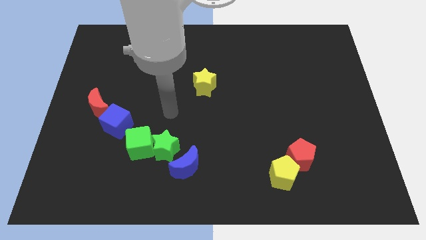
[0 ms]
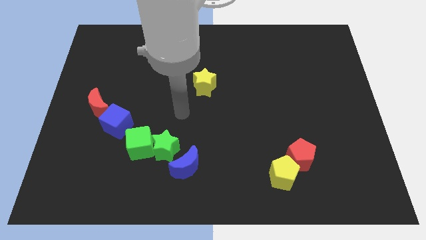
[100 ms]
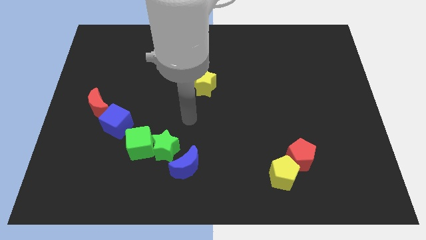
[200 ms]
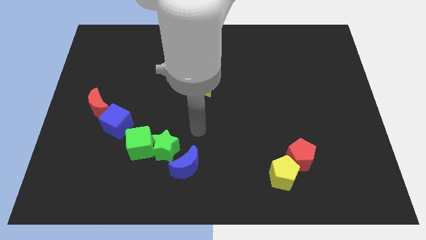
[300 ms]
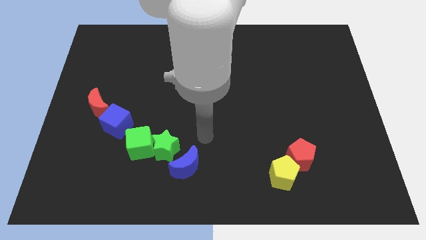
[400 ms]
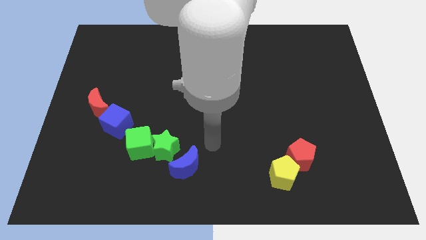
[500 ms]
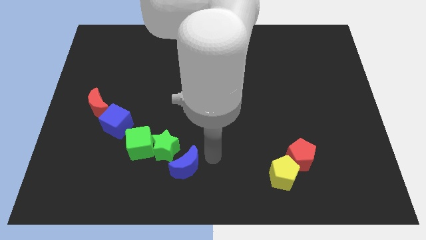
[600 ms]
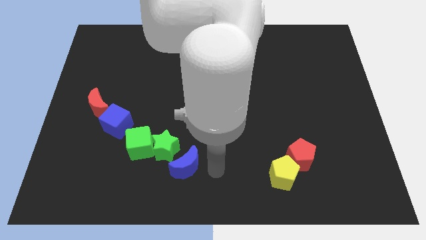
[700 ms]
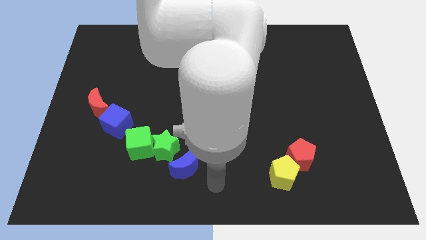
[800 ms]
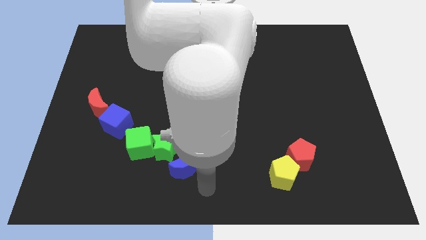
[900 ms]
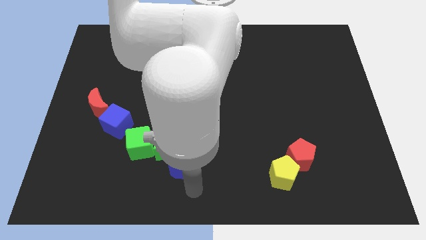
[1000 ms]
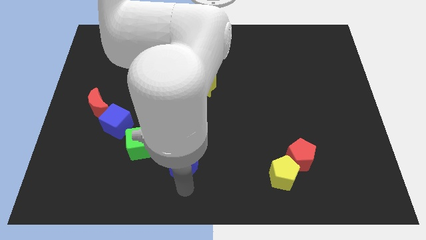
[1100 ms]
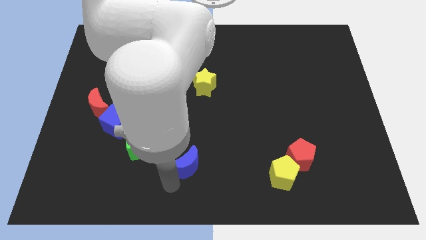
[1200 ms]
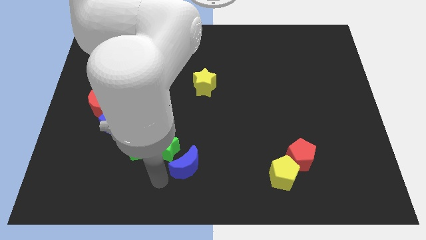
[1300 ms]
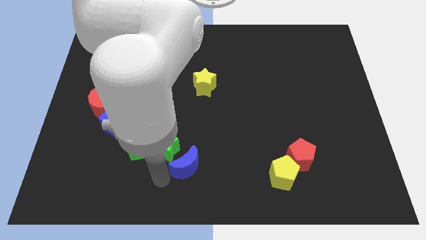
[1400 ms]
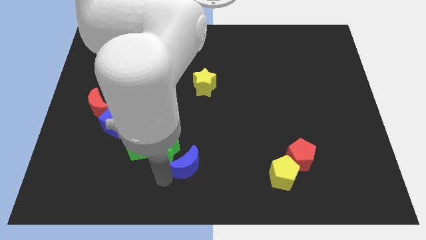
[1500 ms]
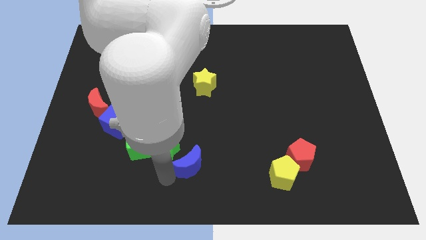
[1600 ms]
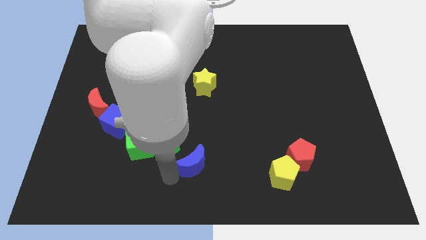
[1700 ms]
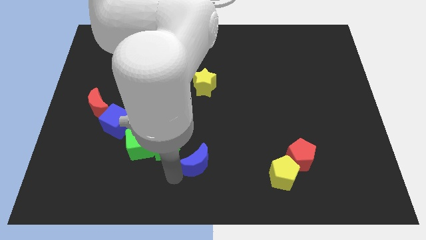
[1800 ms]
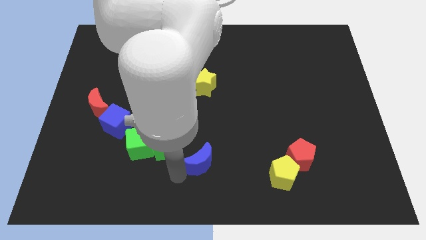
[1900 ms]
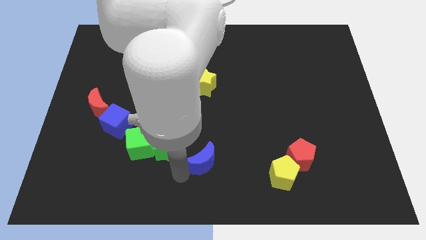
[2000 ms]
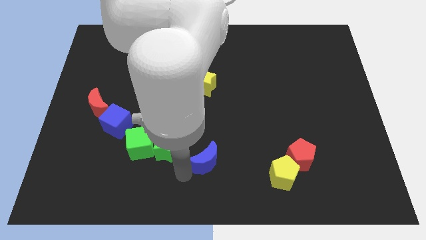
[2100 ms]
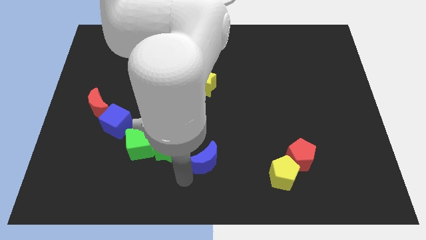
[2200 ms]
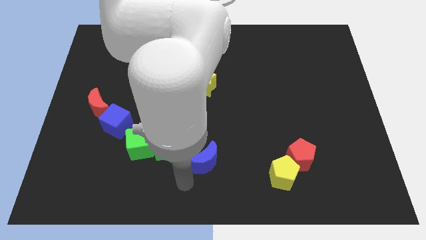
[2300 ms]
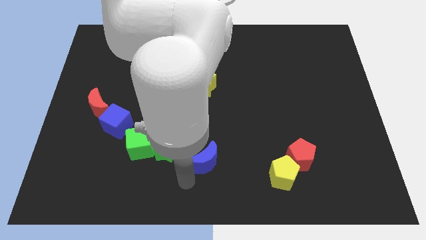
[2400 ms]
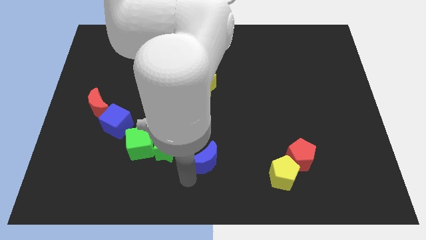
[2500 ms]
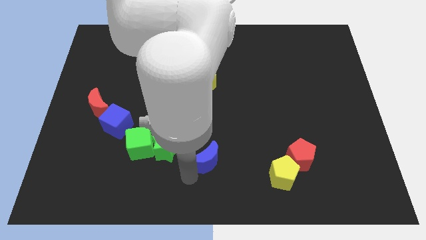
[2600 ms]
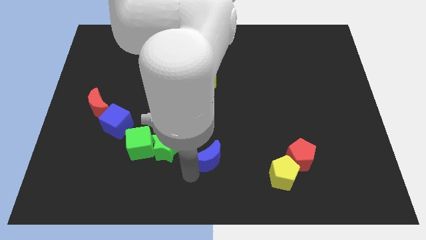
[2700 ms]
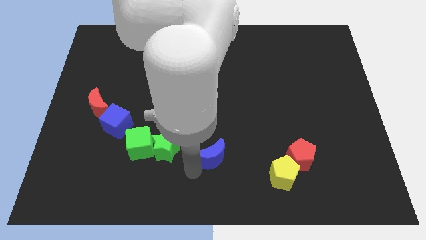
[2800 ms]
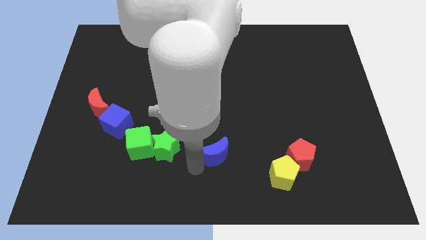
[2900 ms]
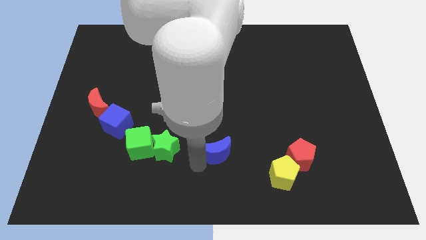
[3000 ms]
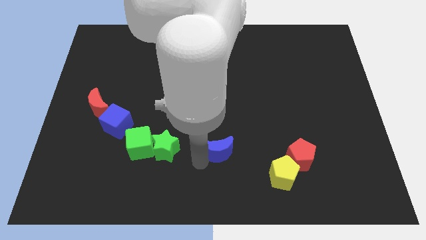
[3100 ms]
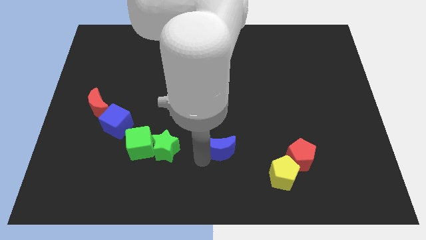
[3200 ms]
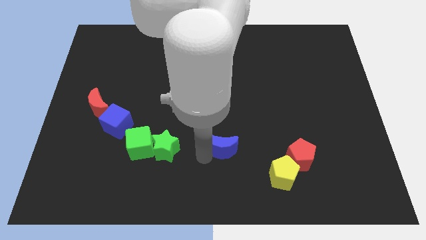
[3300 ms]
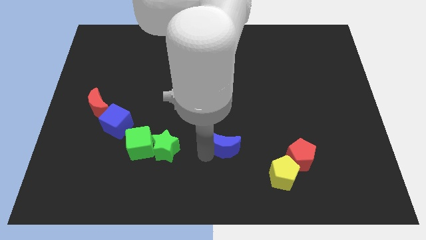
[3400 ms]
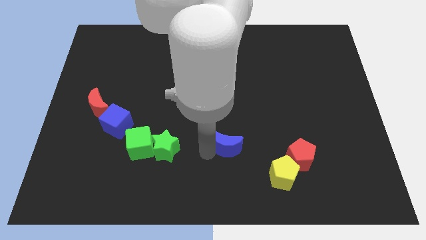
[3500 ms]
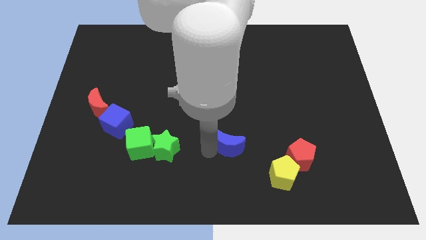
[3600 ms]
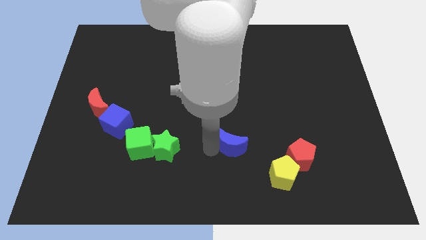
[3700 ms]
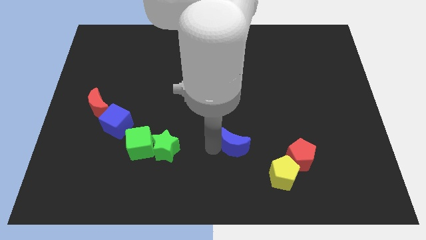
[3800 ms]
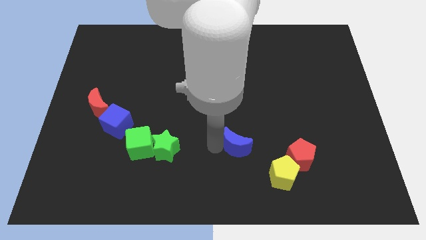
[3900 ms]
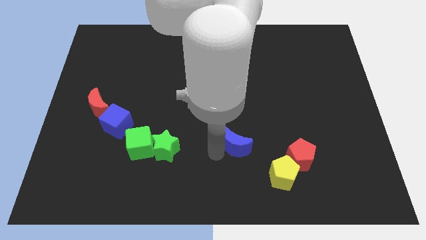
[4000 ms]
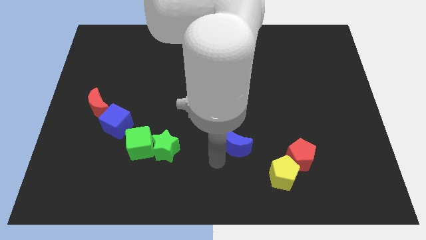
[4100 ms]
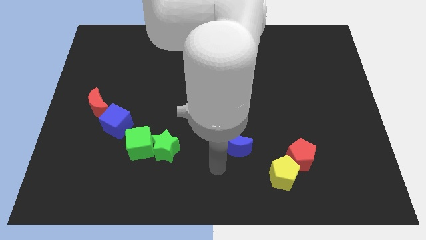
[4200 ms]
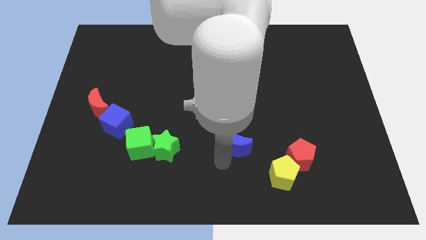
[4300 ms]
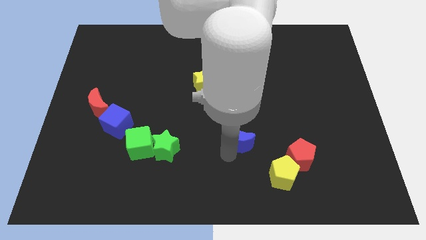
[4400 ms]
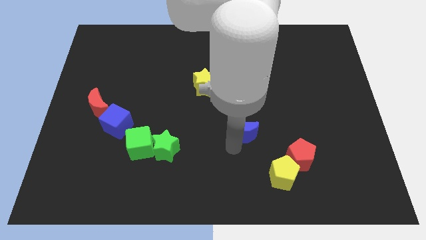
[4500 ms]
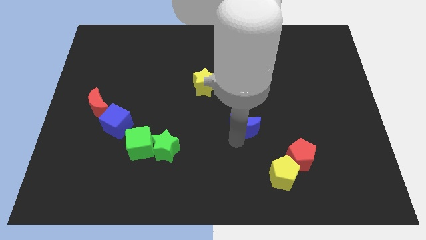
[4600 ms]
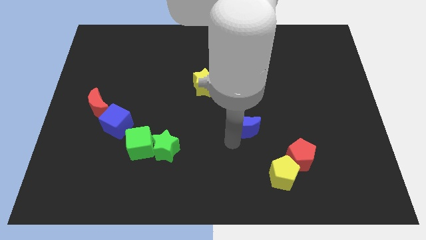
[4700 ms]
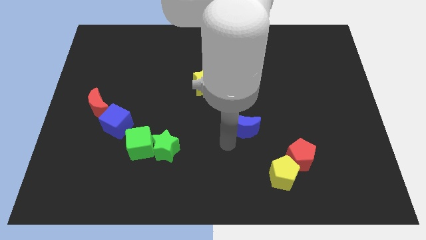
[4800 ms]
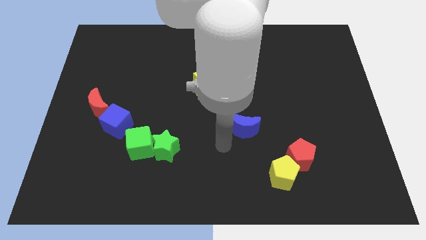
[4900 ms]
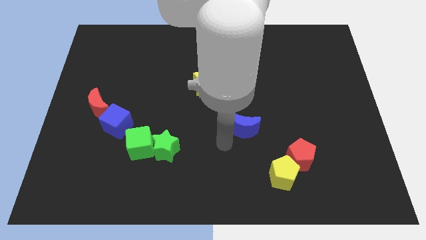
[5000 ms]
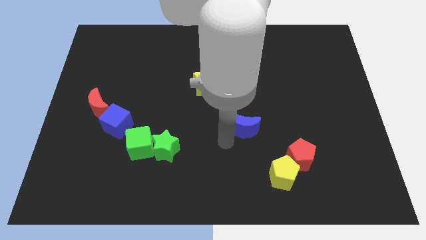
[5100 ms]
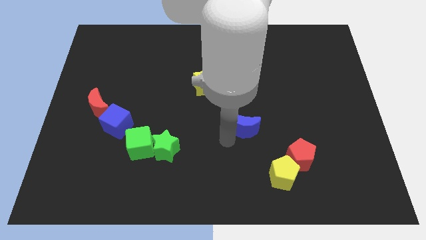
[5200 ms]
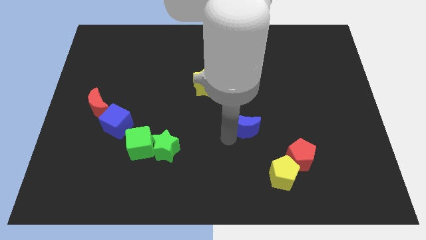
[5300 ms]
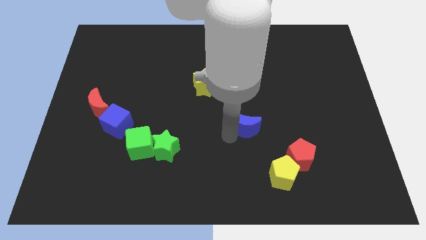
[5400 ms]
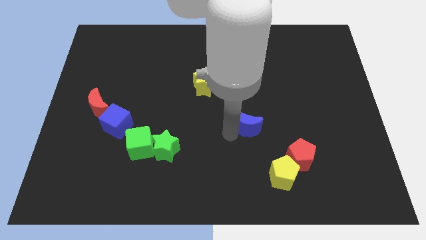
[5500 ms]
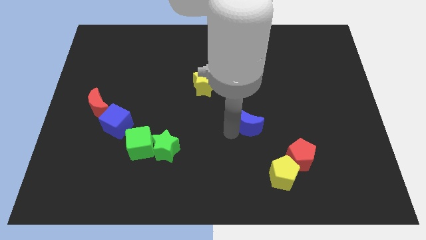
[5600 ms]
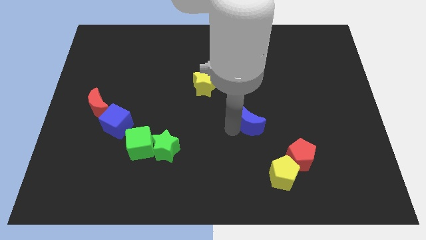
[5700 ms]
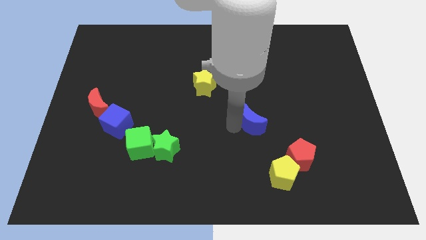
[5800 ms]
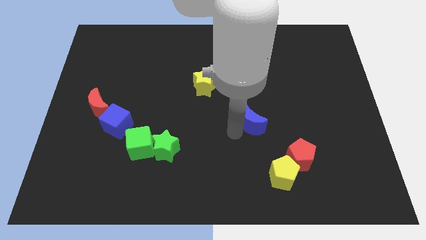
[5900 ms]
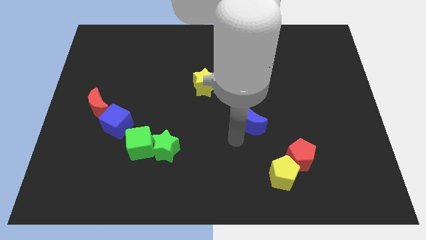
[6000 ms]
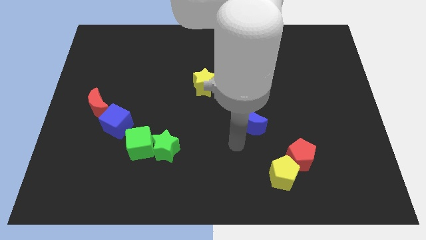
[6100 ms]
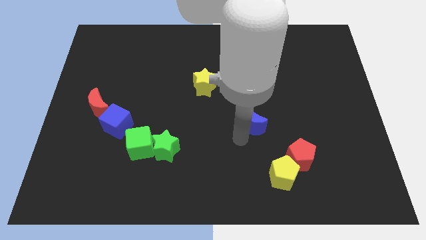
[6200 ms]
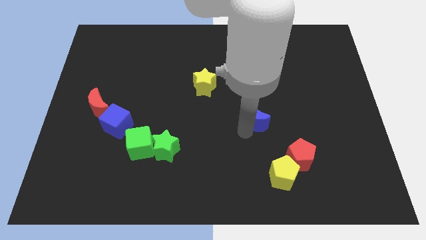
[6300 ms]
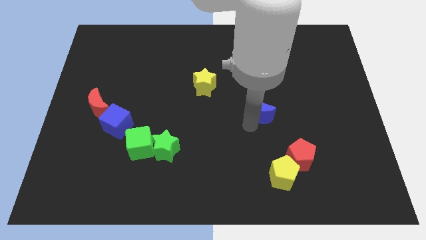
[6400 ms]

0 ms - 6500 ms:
move the blue moon upwards and to the right

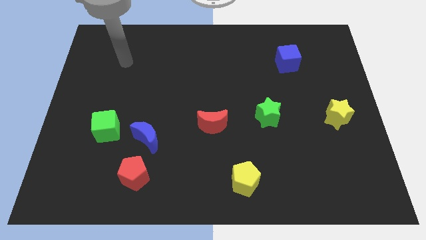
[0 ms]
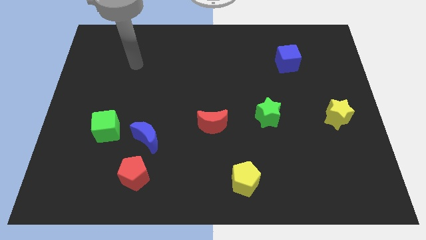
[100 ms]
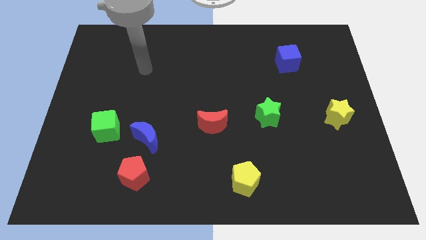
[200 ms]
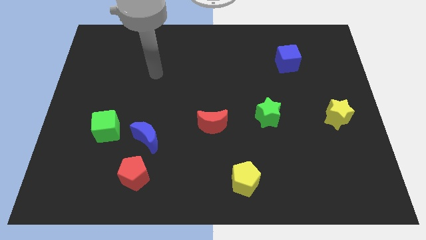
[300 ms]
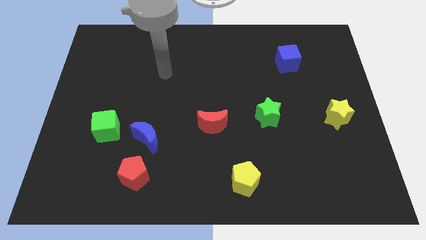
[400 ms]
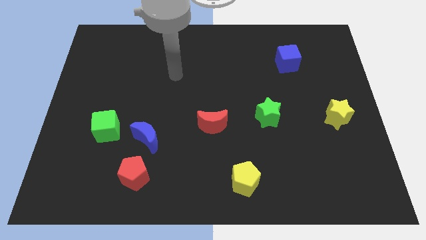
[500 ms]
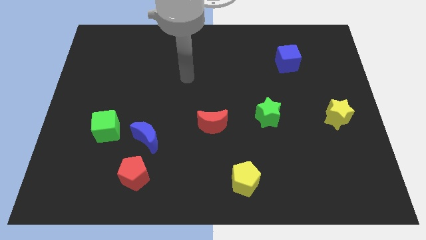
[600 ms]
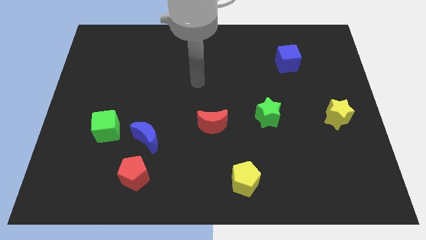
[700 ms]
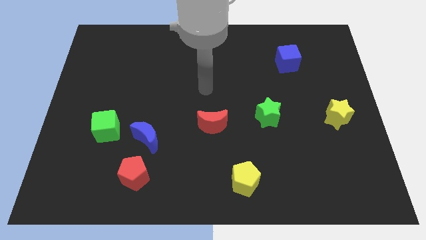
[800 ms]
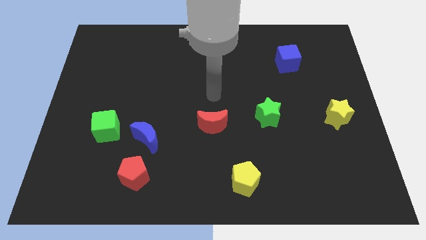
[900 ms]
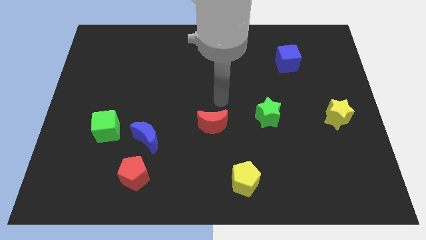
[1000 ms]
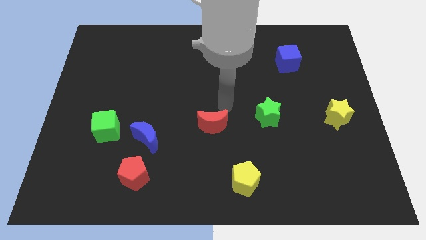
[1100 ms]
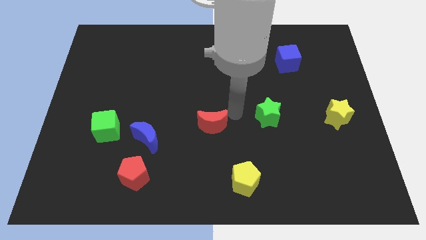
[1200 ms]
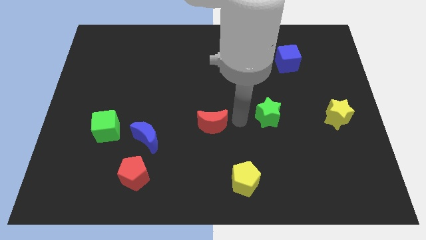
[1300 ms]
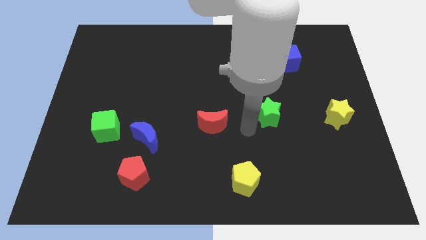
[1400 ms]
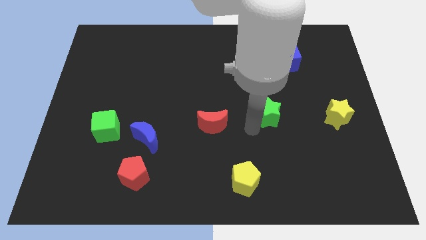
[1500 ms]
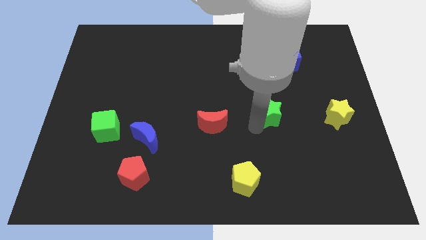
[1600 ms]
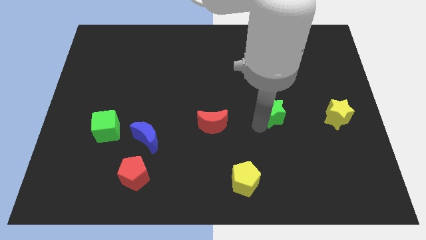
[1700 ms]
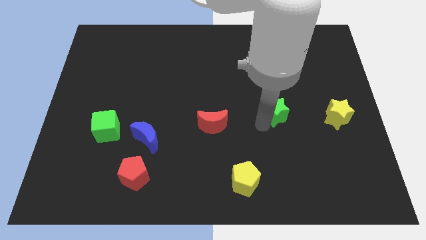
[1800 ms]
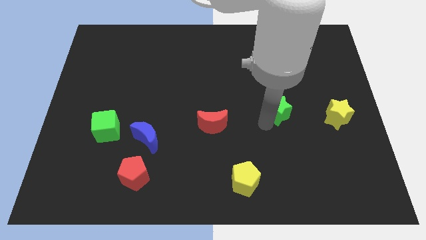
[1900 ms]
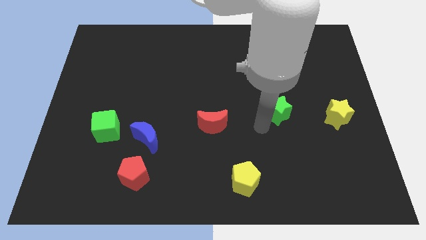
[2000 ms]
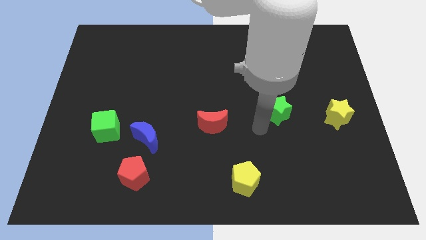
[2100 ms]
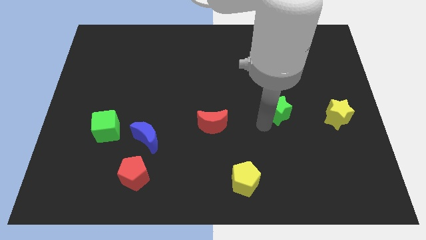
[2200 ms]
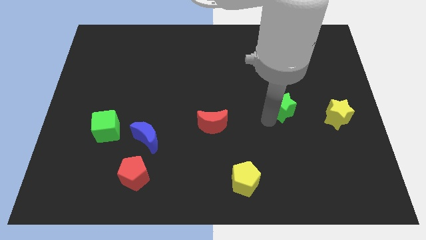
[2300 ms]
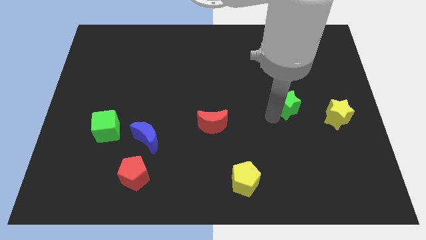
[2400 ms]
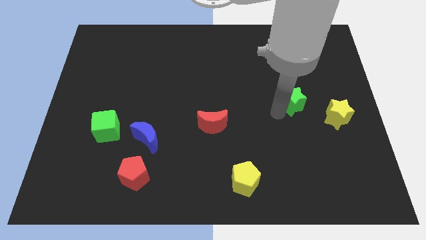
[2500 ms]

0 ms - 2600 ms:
move the green star a little bit up and right
